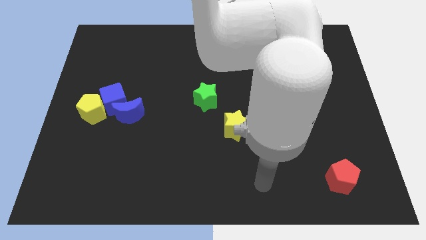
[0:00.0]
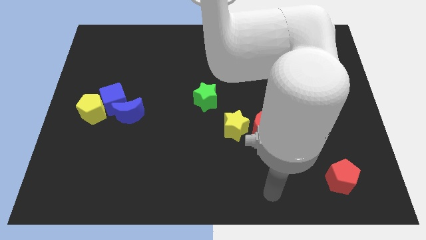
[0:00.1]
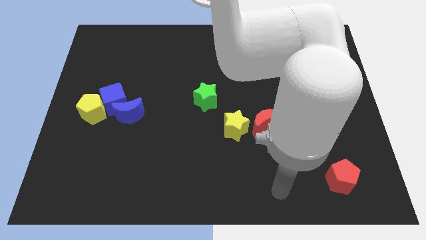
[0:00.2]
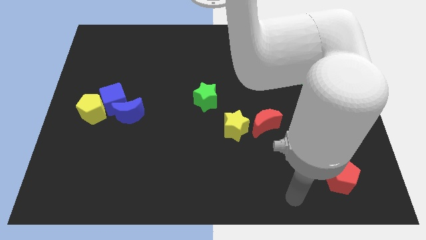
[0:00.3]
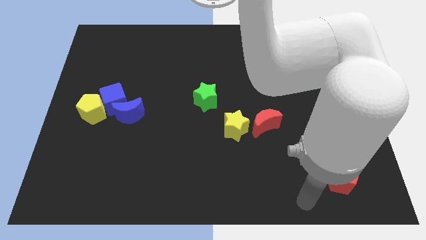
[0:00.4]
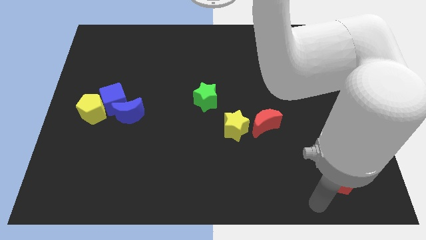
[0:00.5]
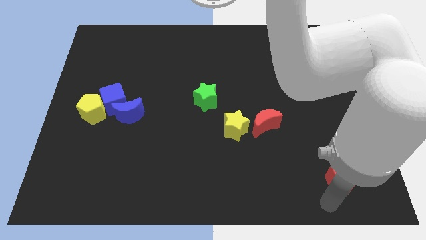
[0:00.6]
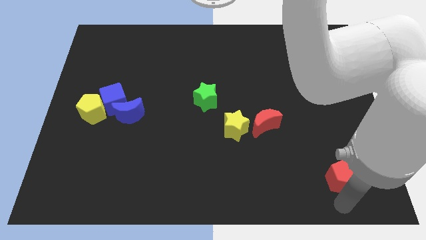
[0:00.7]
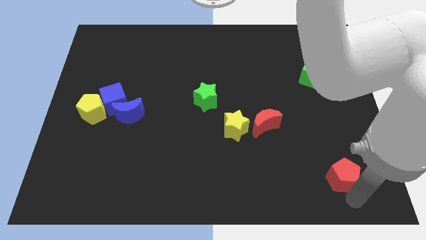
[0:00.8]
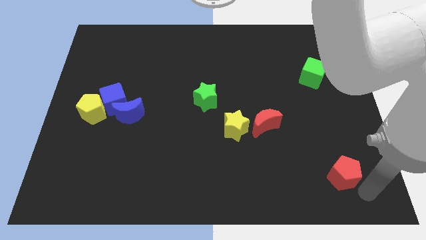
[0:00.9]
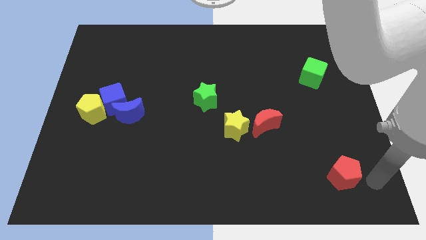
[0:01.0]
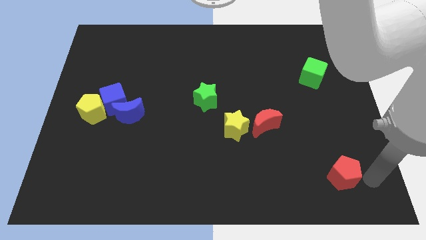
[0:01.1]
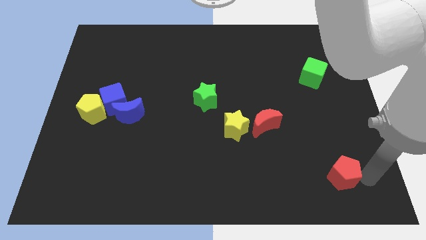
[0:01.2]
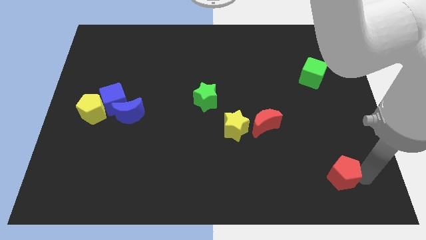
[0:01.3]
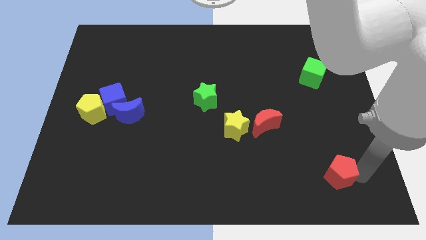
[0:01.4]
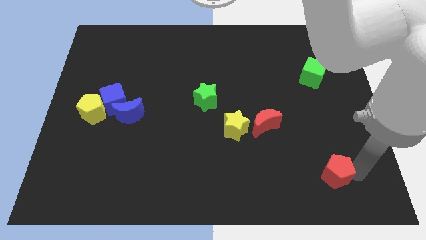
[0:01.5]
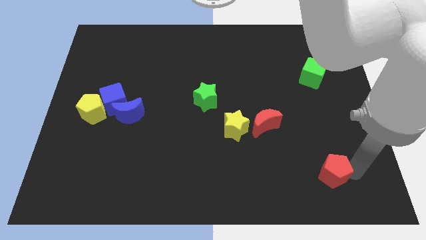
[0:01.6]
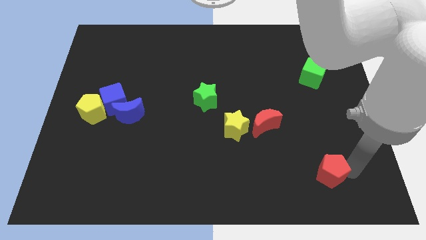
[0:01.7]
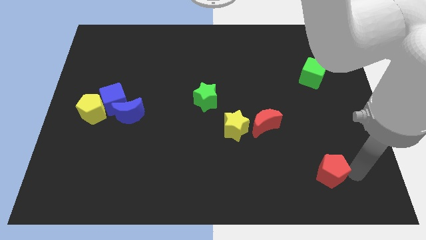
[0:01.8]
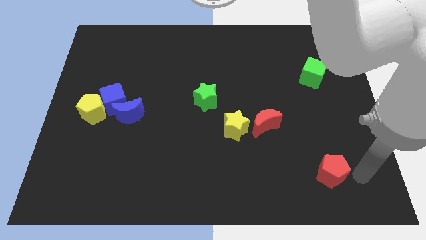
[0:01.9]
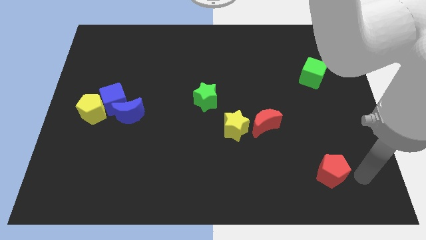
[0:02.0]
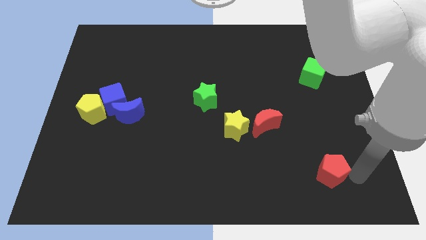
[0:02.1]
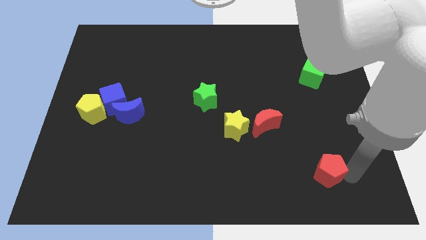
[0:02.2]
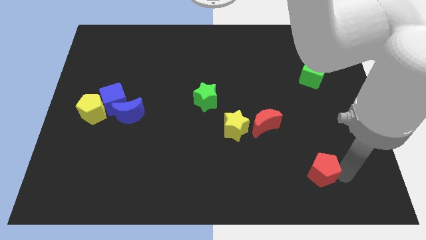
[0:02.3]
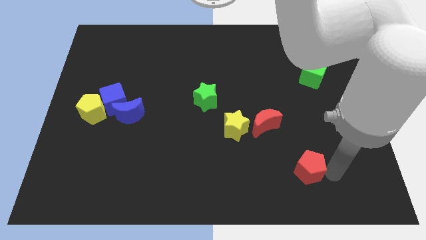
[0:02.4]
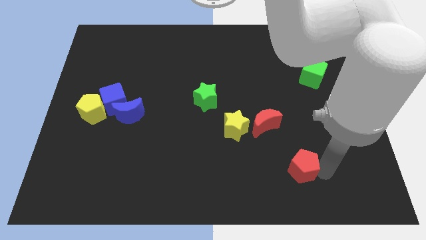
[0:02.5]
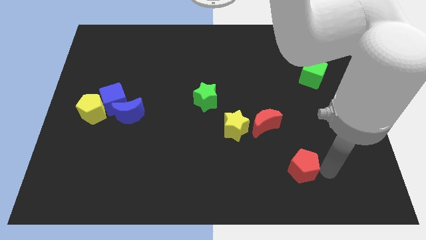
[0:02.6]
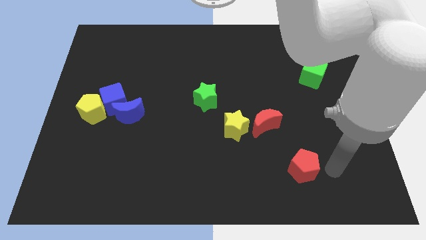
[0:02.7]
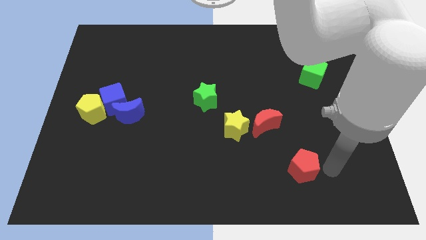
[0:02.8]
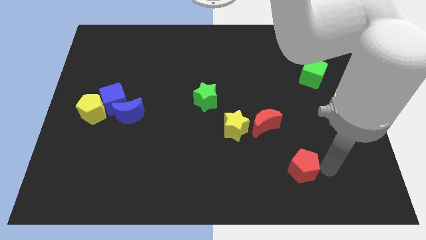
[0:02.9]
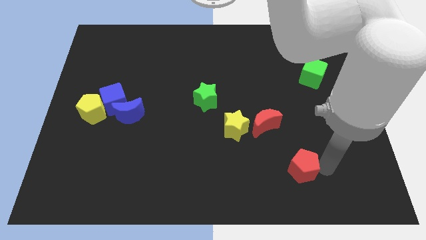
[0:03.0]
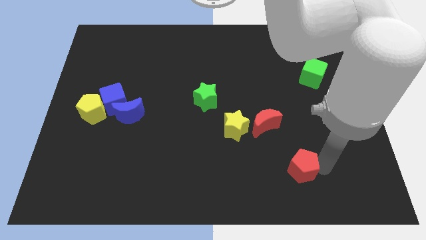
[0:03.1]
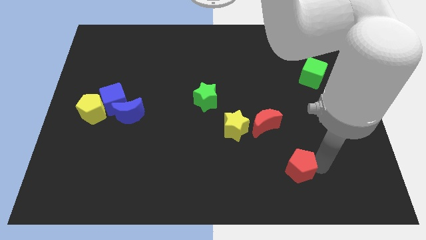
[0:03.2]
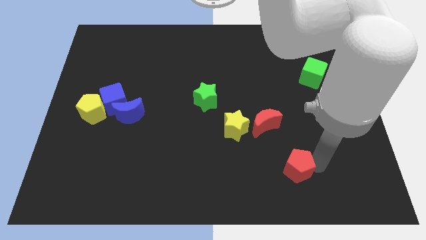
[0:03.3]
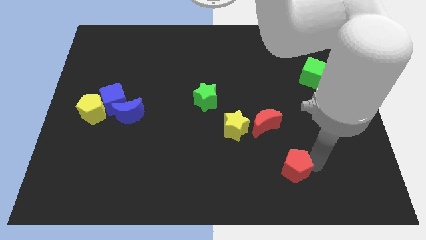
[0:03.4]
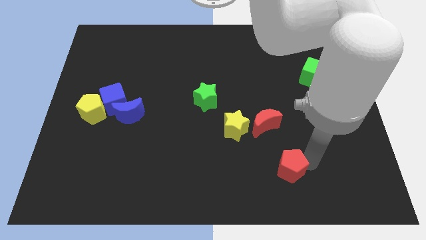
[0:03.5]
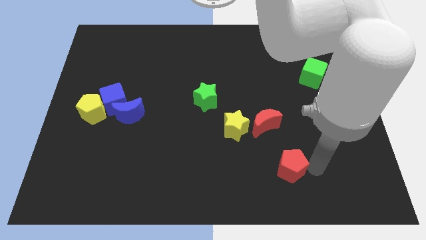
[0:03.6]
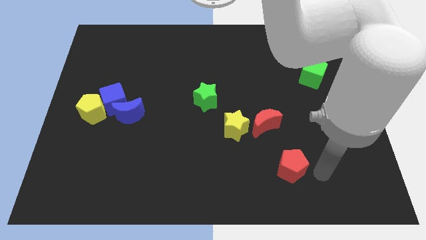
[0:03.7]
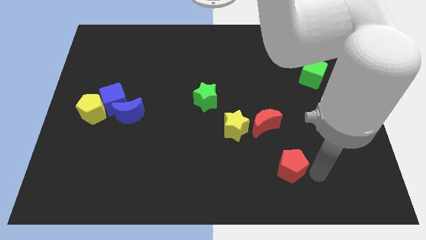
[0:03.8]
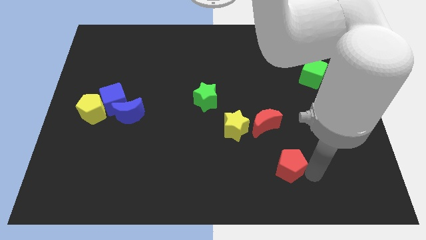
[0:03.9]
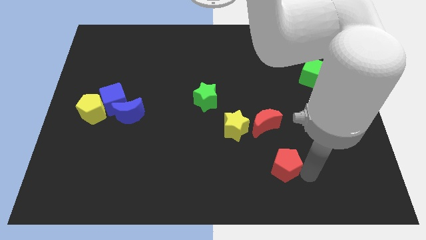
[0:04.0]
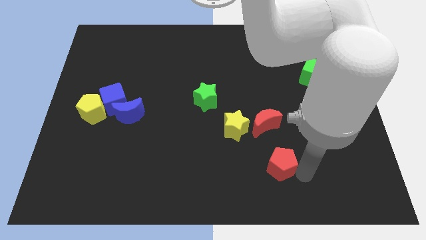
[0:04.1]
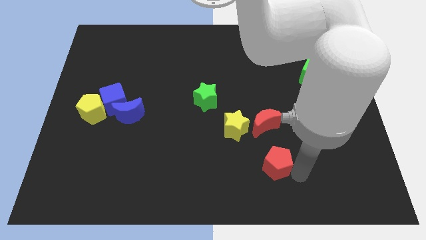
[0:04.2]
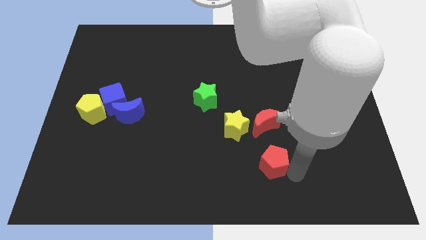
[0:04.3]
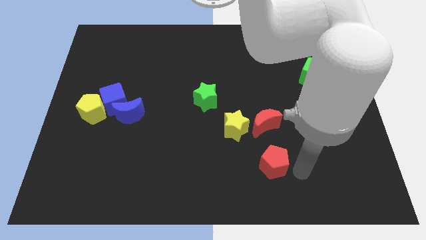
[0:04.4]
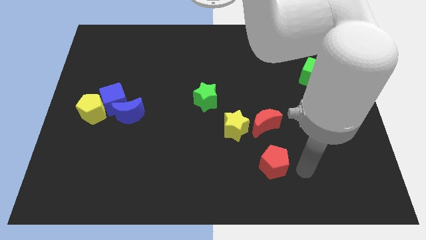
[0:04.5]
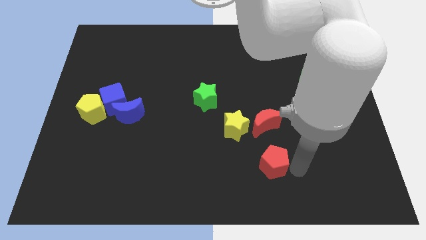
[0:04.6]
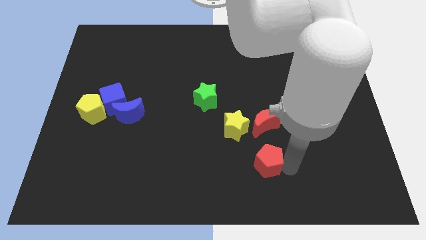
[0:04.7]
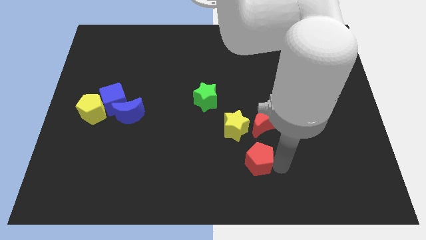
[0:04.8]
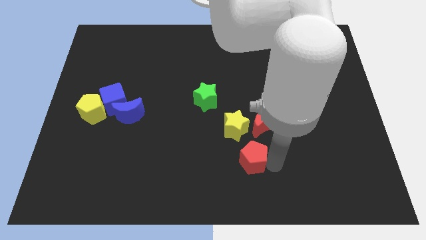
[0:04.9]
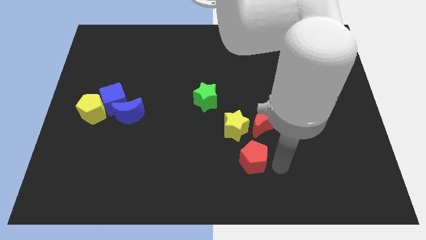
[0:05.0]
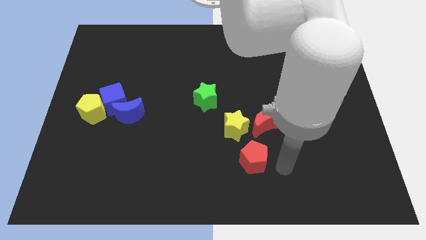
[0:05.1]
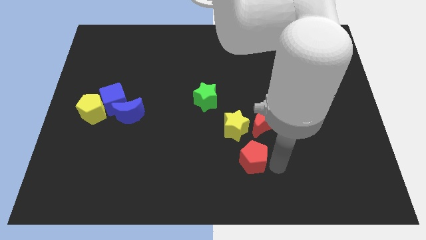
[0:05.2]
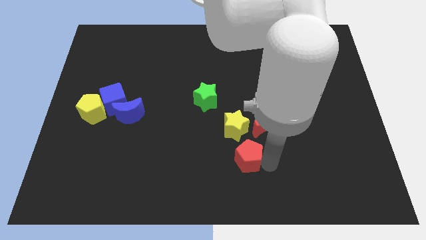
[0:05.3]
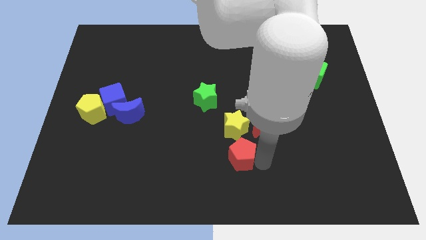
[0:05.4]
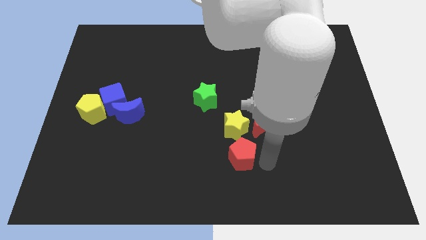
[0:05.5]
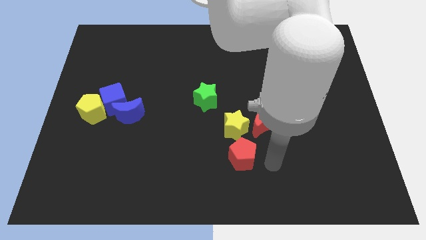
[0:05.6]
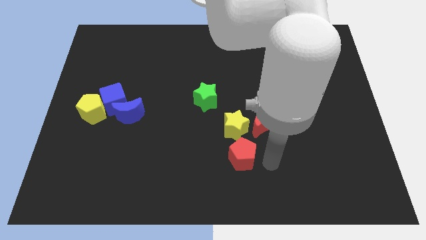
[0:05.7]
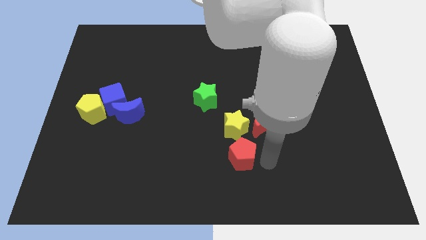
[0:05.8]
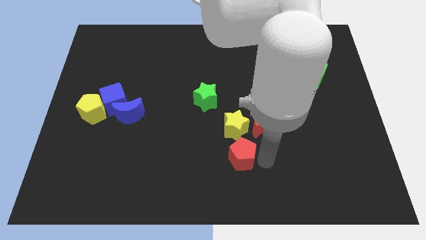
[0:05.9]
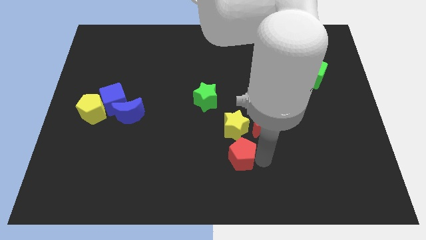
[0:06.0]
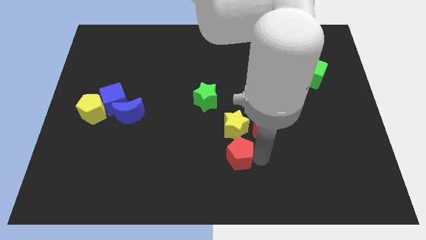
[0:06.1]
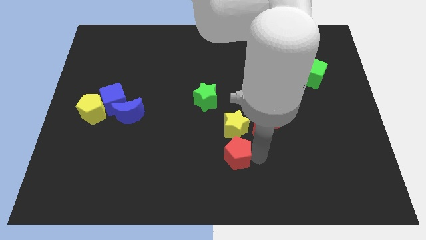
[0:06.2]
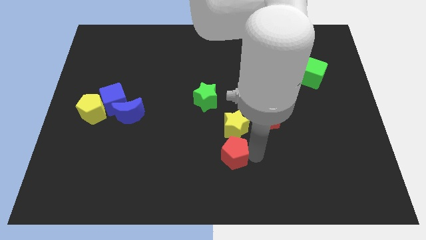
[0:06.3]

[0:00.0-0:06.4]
slide the red pentagon to the bottom left side of the yellow star
